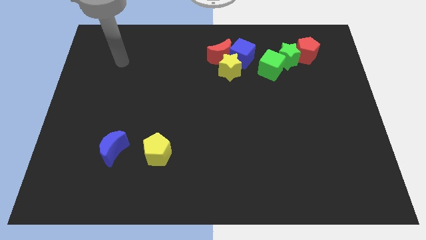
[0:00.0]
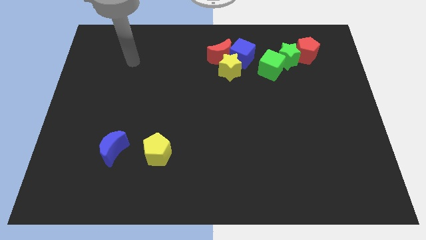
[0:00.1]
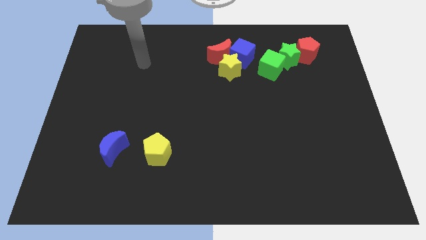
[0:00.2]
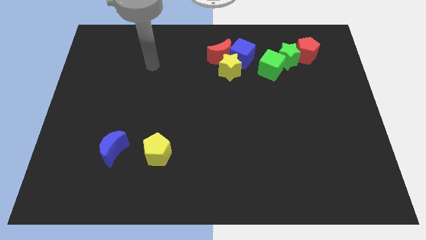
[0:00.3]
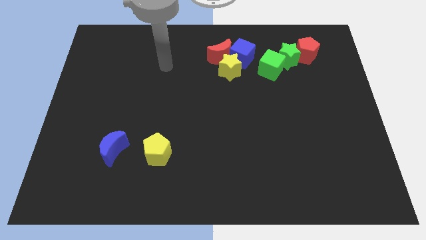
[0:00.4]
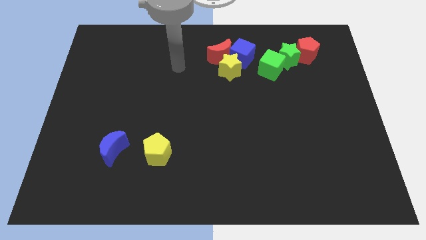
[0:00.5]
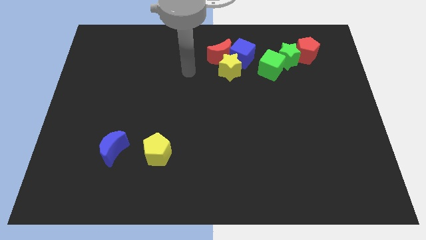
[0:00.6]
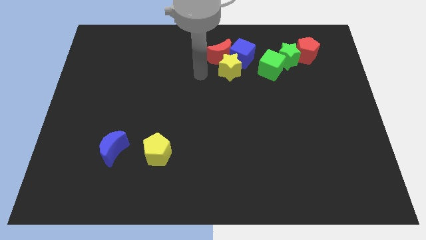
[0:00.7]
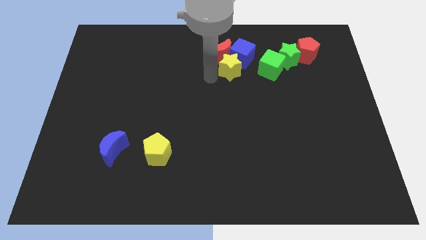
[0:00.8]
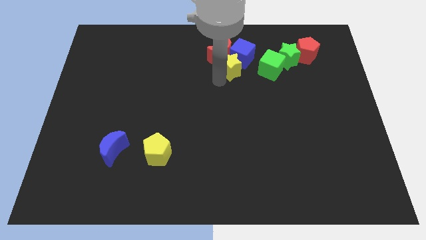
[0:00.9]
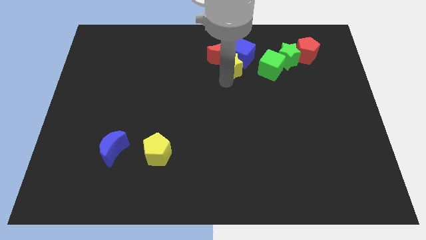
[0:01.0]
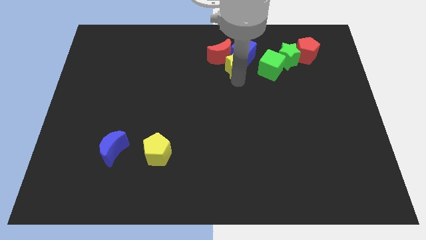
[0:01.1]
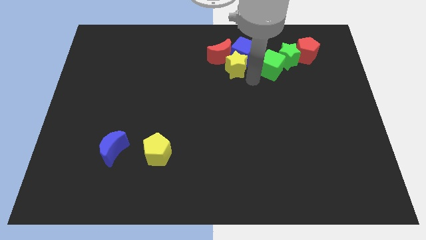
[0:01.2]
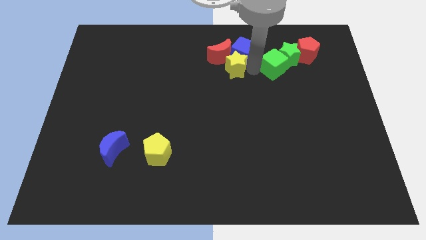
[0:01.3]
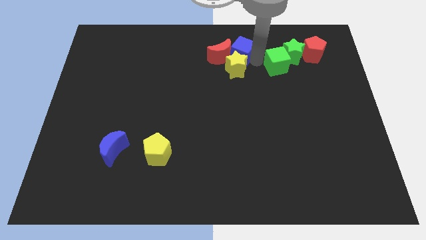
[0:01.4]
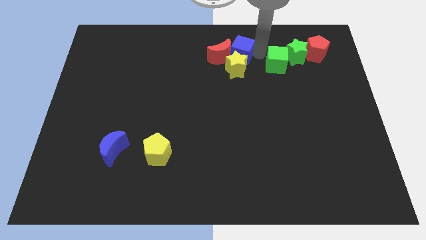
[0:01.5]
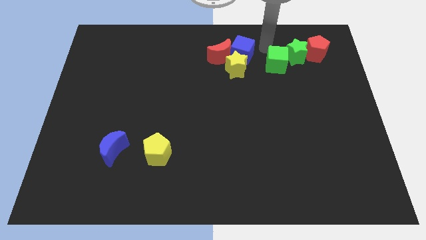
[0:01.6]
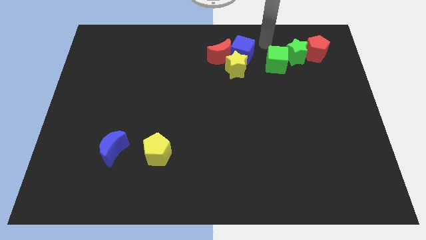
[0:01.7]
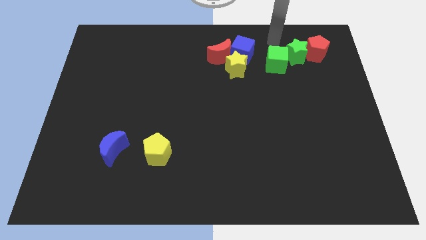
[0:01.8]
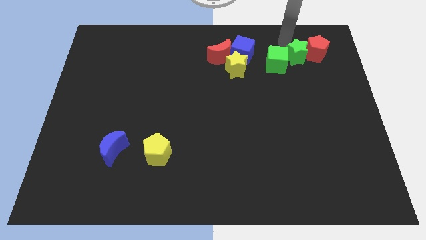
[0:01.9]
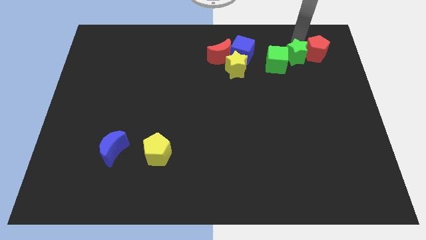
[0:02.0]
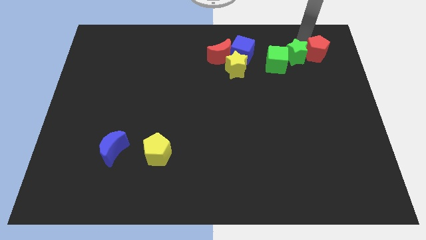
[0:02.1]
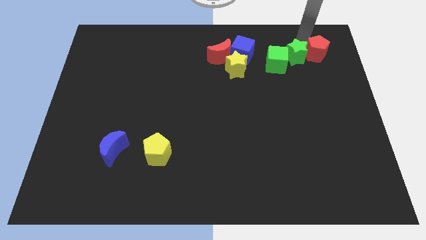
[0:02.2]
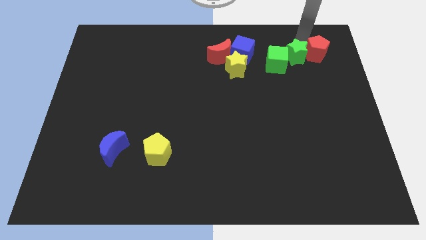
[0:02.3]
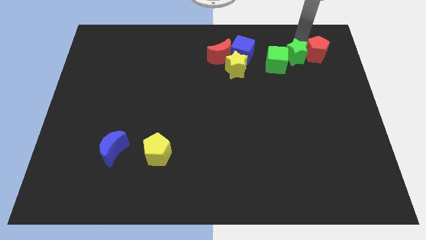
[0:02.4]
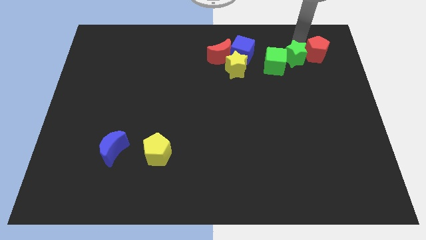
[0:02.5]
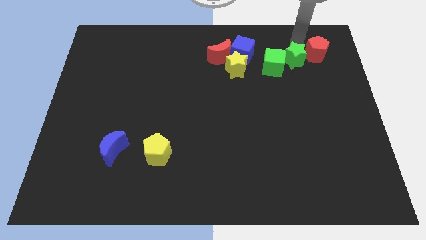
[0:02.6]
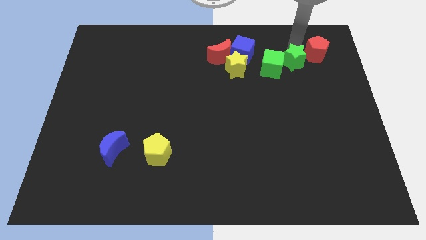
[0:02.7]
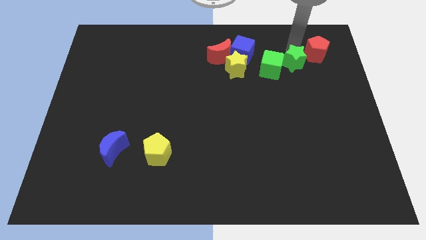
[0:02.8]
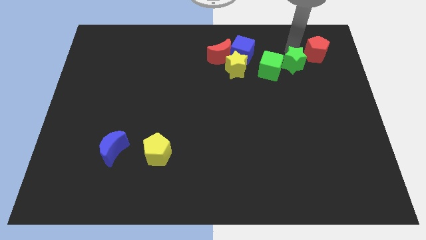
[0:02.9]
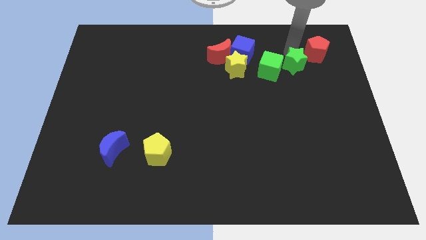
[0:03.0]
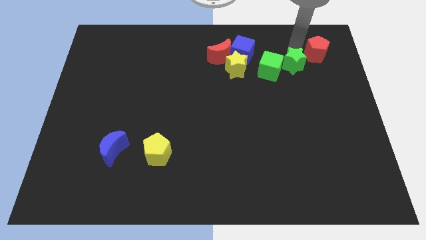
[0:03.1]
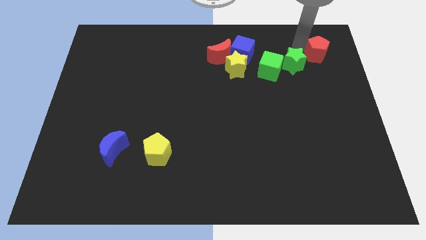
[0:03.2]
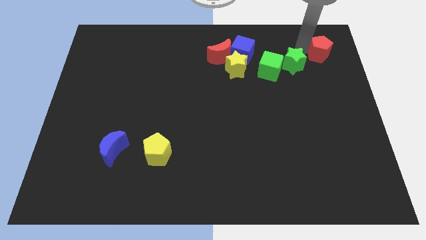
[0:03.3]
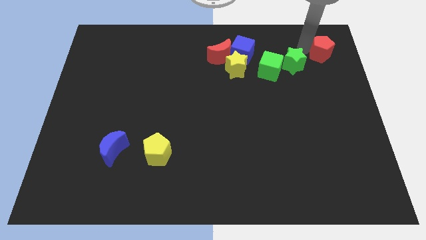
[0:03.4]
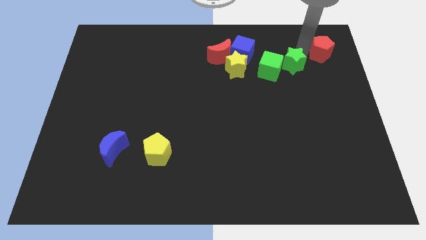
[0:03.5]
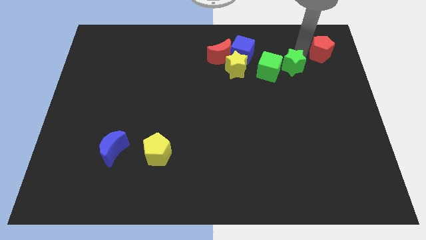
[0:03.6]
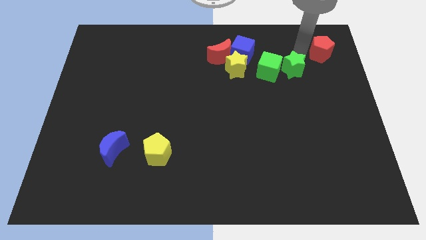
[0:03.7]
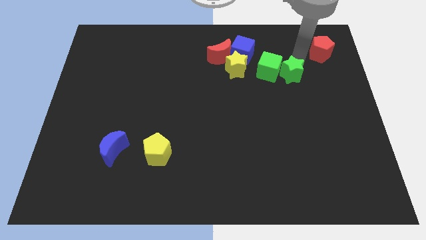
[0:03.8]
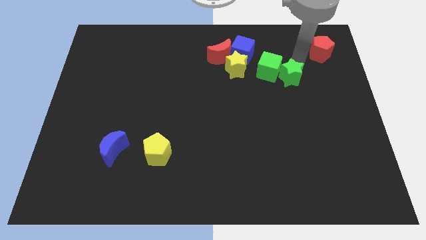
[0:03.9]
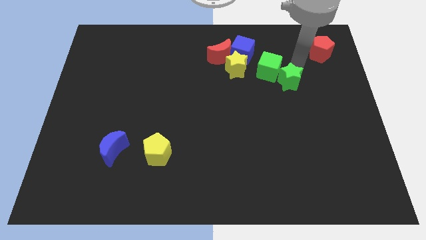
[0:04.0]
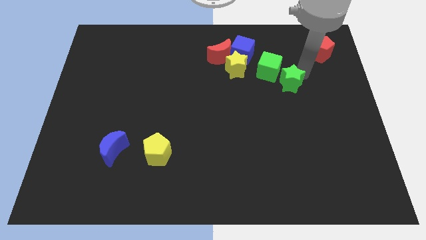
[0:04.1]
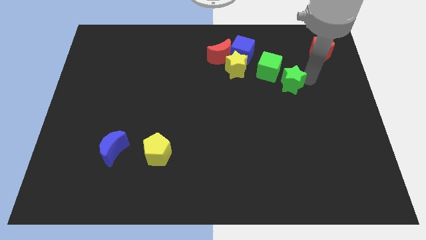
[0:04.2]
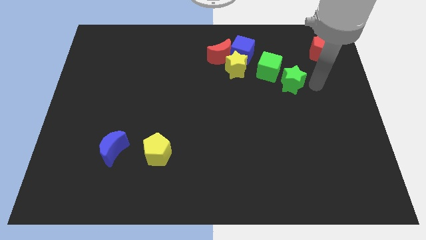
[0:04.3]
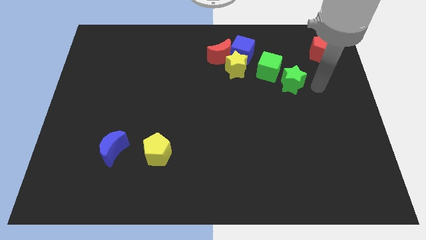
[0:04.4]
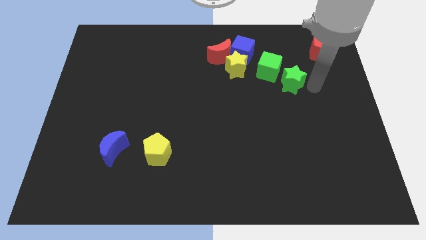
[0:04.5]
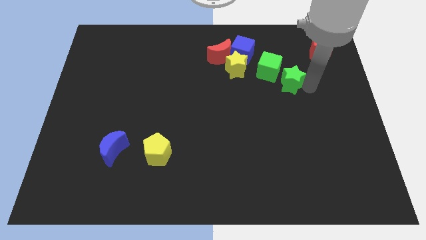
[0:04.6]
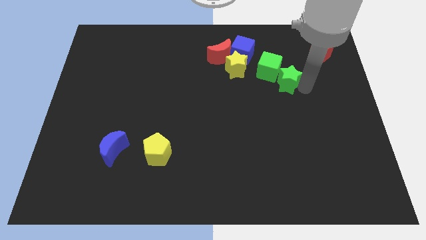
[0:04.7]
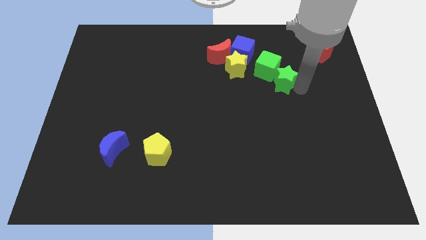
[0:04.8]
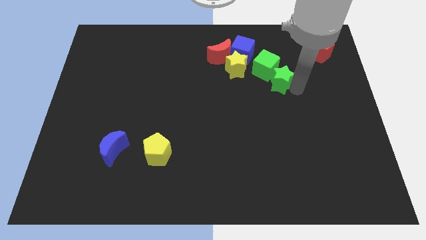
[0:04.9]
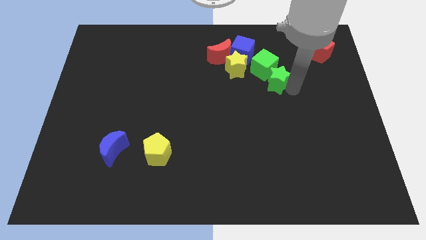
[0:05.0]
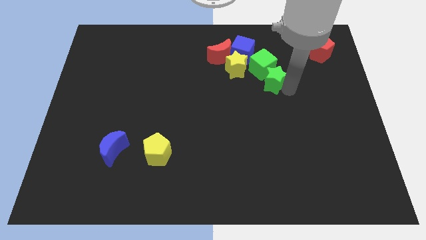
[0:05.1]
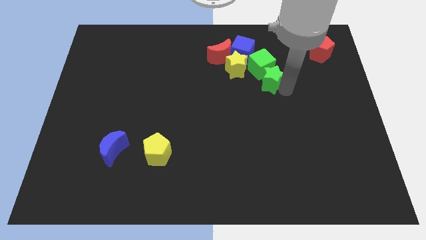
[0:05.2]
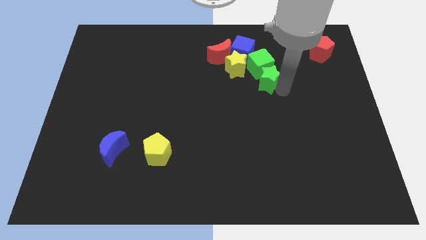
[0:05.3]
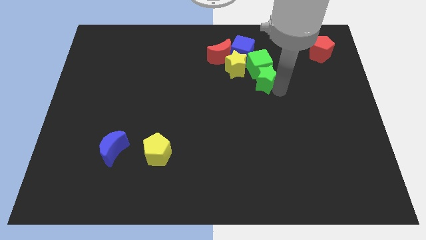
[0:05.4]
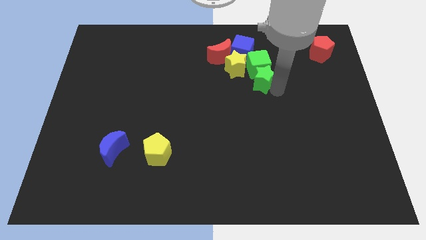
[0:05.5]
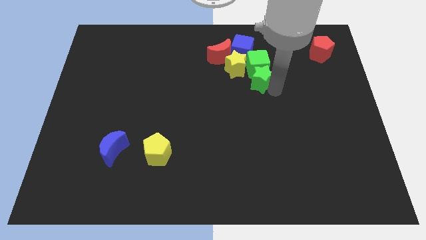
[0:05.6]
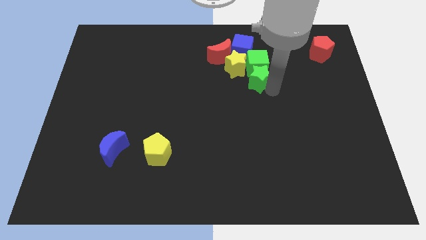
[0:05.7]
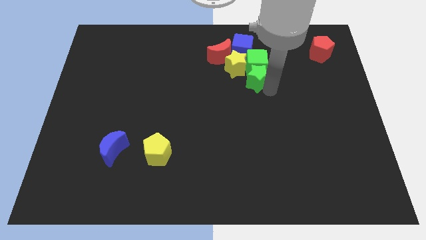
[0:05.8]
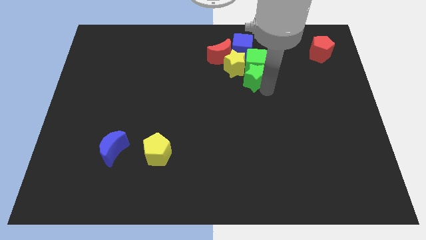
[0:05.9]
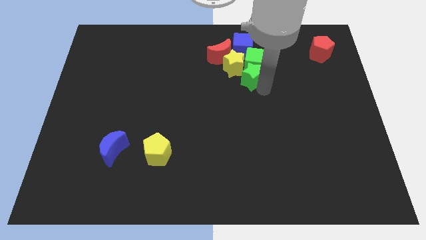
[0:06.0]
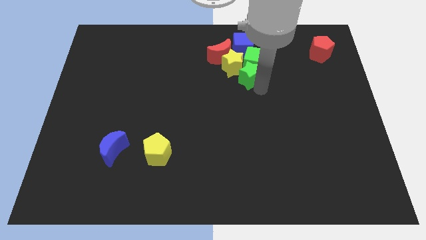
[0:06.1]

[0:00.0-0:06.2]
put the green star towards the yellow star

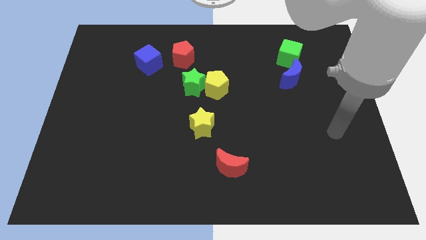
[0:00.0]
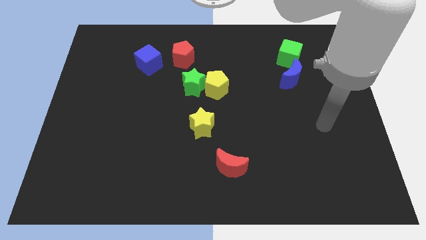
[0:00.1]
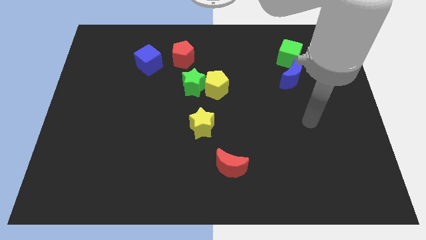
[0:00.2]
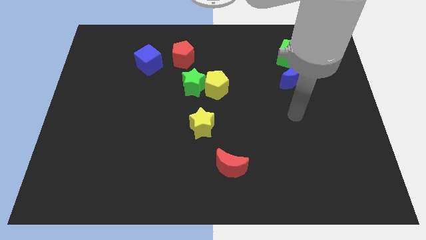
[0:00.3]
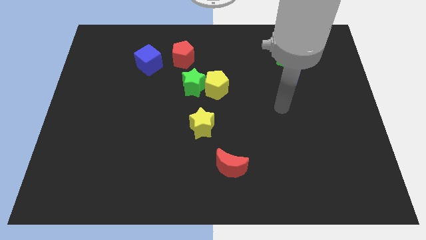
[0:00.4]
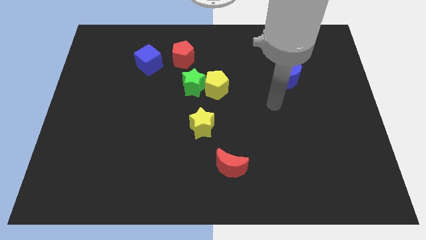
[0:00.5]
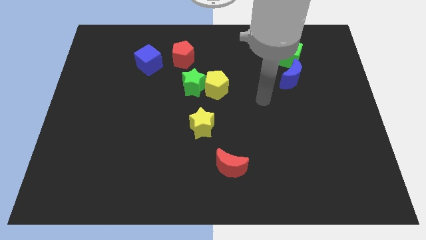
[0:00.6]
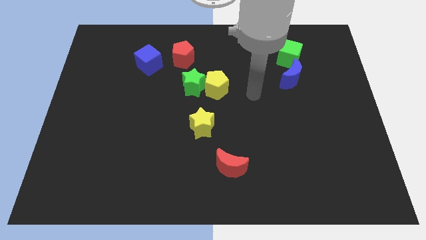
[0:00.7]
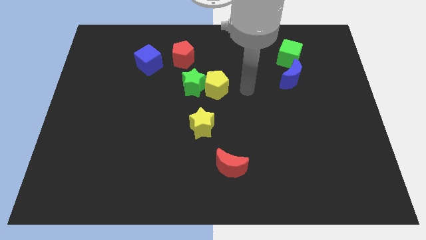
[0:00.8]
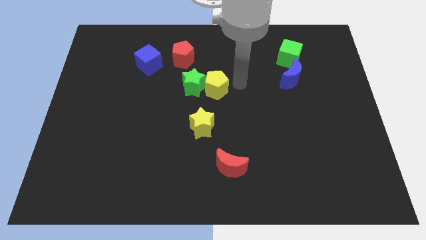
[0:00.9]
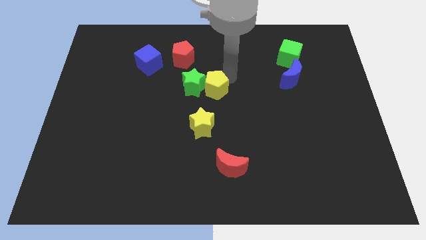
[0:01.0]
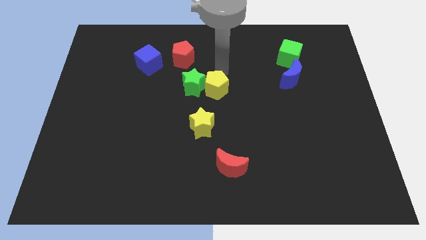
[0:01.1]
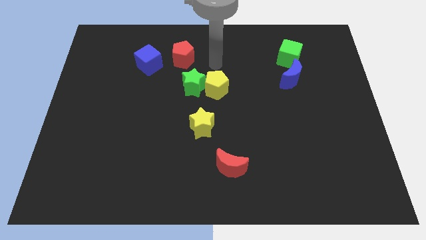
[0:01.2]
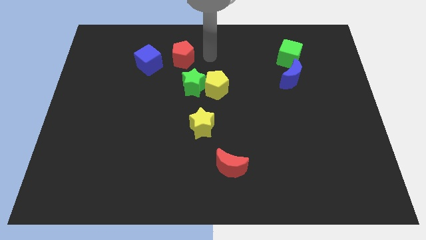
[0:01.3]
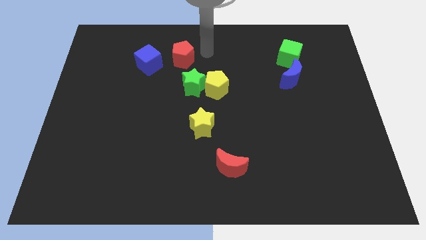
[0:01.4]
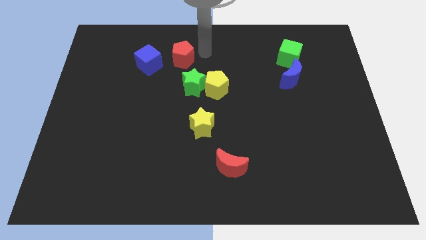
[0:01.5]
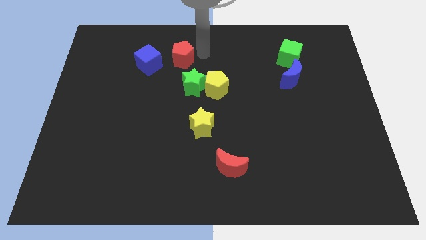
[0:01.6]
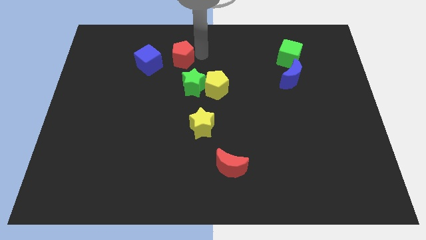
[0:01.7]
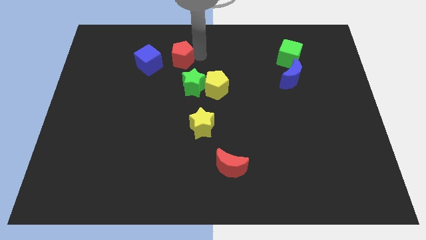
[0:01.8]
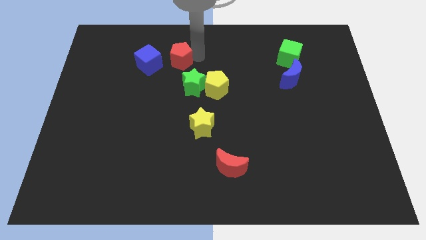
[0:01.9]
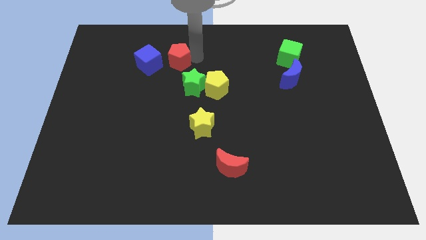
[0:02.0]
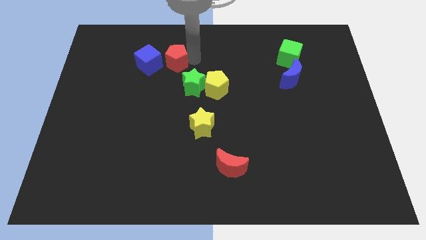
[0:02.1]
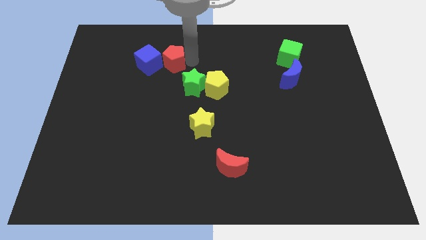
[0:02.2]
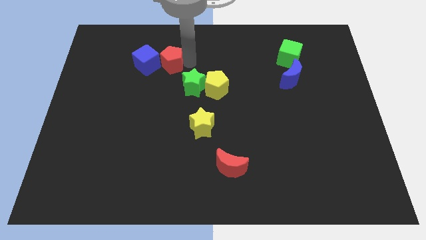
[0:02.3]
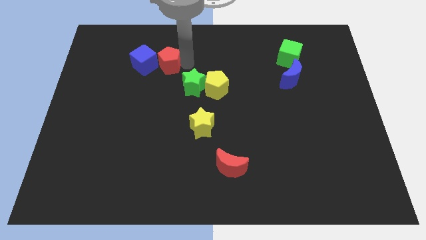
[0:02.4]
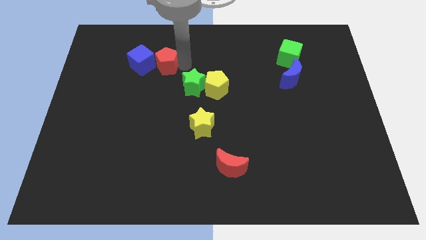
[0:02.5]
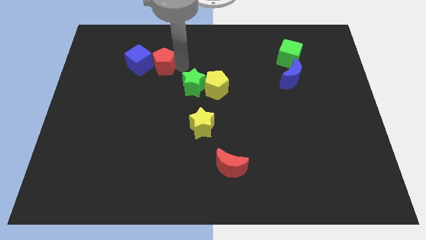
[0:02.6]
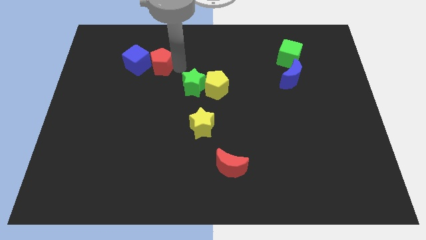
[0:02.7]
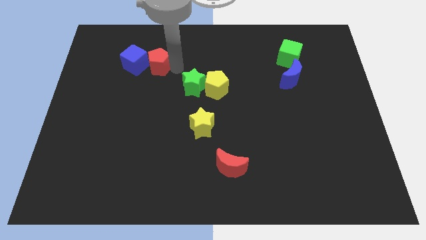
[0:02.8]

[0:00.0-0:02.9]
put the red pentagon towards the blue cube
